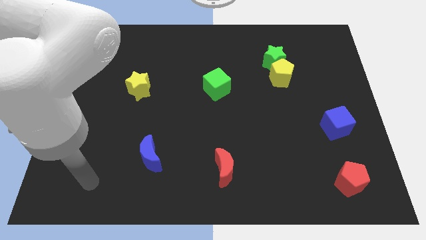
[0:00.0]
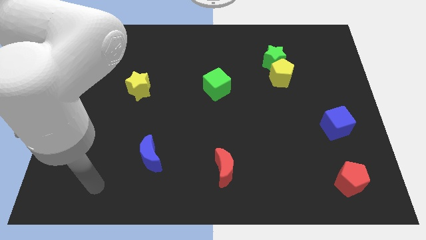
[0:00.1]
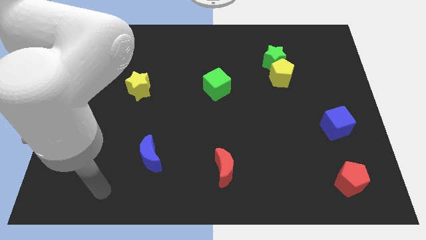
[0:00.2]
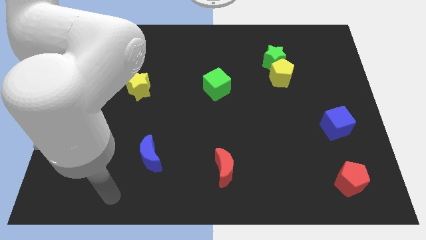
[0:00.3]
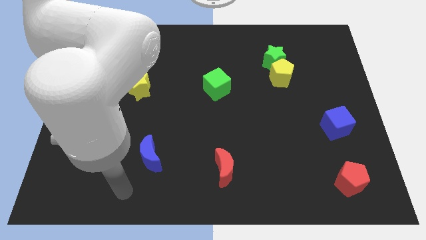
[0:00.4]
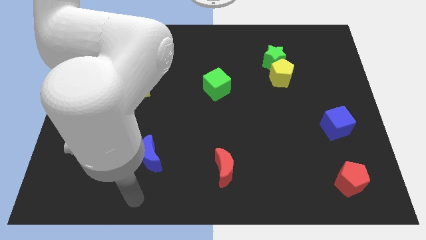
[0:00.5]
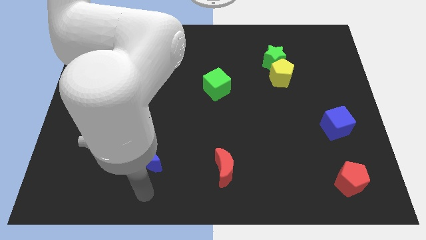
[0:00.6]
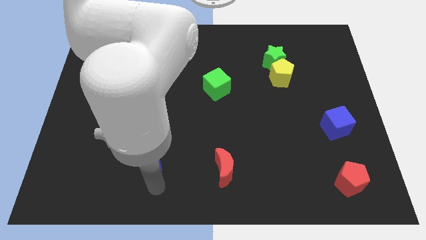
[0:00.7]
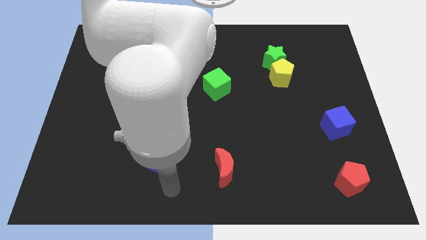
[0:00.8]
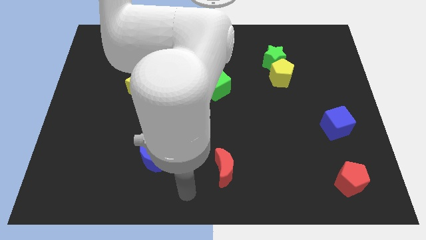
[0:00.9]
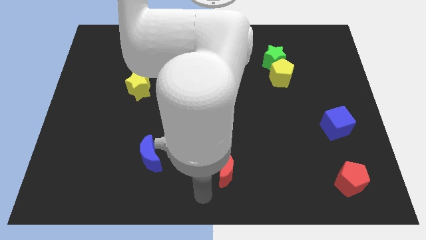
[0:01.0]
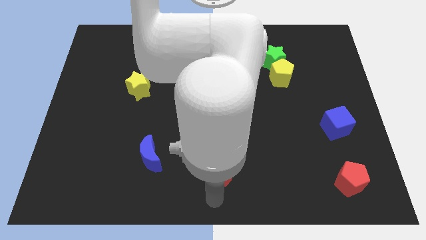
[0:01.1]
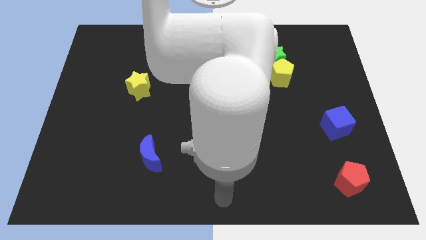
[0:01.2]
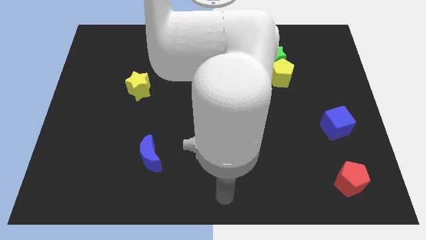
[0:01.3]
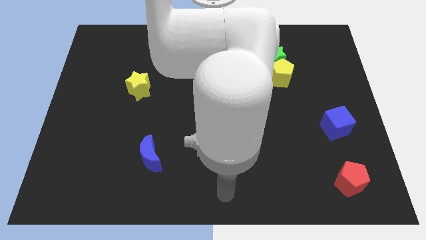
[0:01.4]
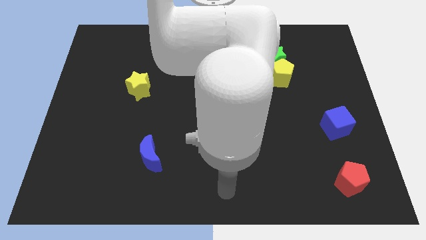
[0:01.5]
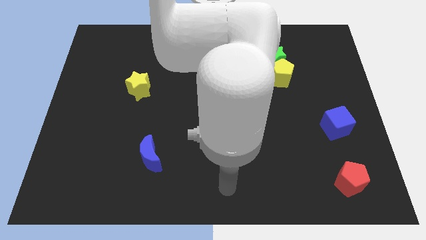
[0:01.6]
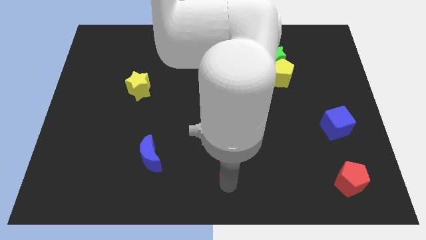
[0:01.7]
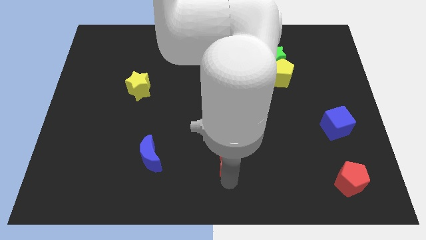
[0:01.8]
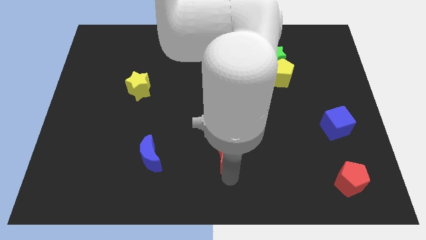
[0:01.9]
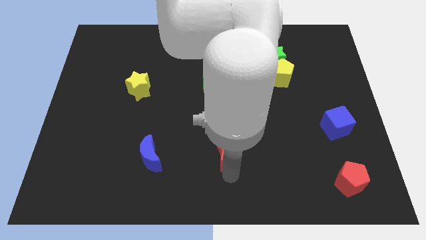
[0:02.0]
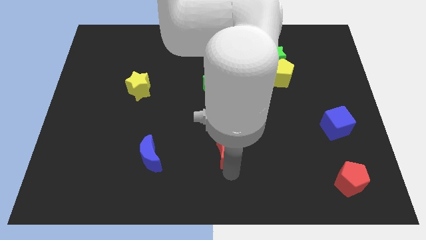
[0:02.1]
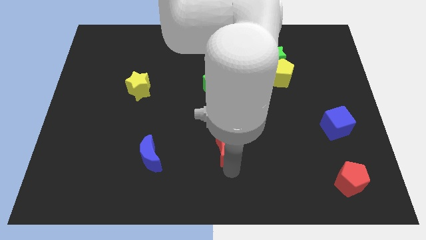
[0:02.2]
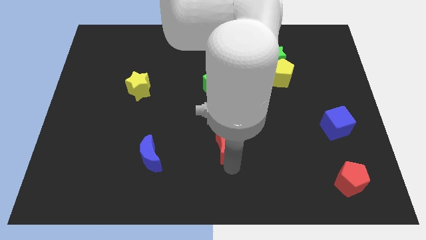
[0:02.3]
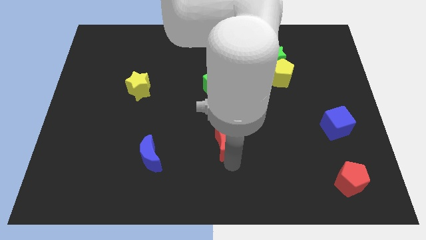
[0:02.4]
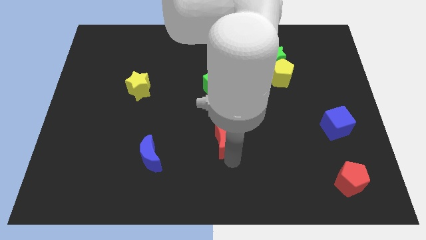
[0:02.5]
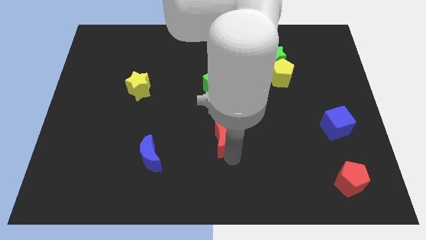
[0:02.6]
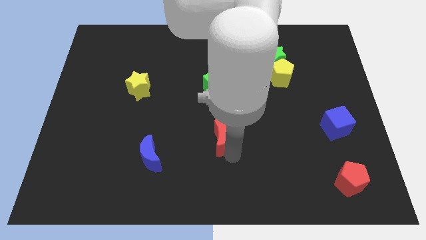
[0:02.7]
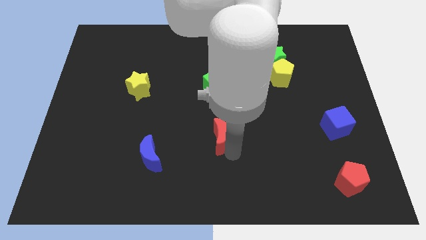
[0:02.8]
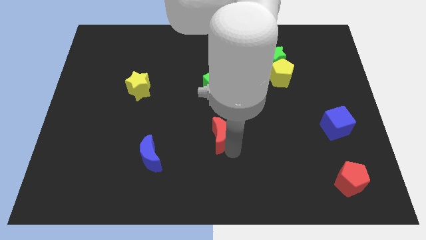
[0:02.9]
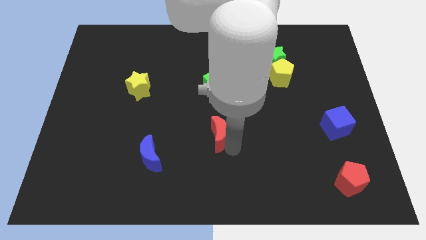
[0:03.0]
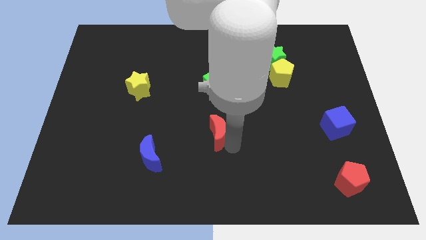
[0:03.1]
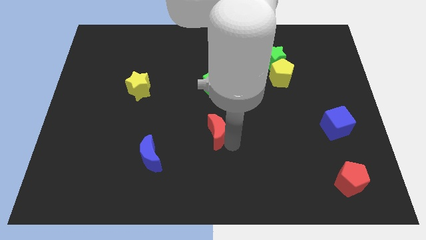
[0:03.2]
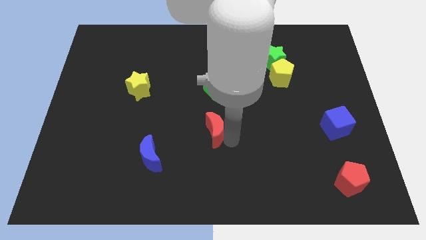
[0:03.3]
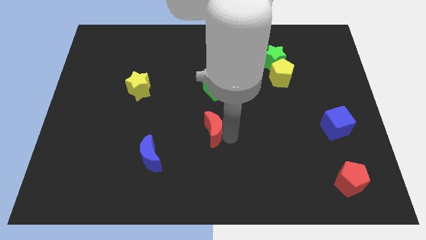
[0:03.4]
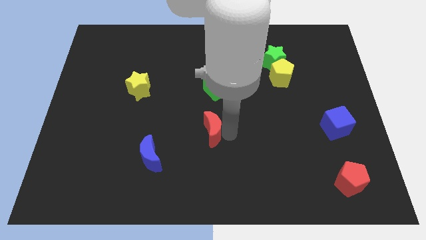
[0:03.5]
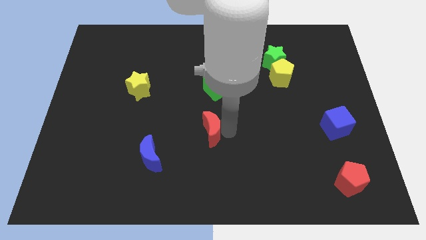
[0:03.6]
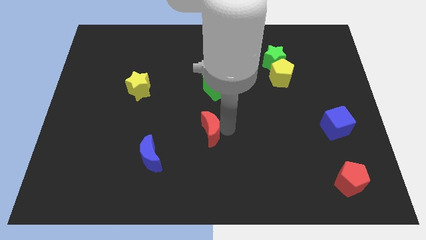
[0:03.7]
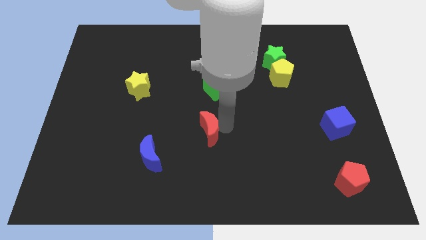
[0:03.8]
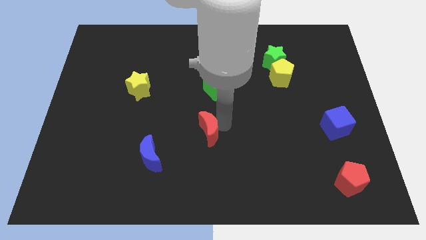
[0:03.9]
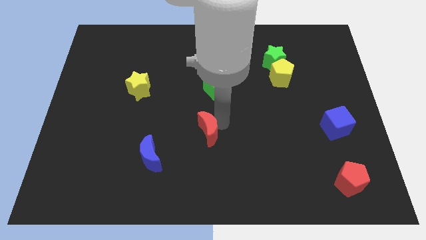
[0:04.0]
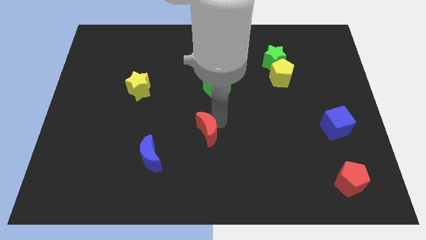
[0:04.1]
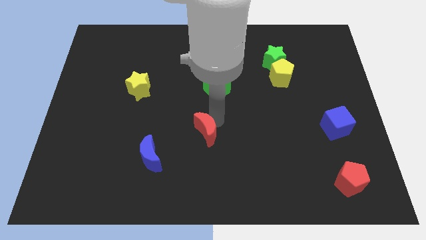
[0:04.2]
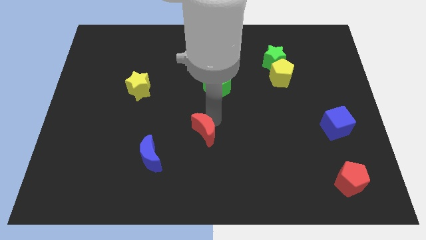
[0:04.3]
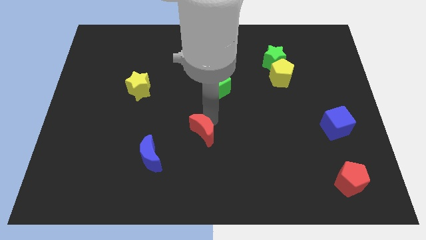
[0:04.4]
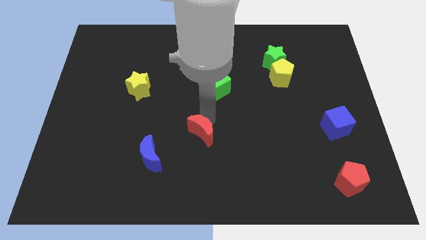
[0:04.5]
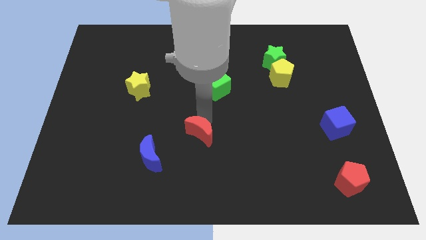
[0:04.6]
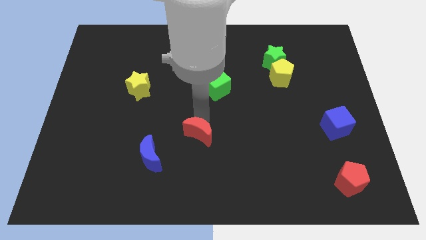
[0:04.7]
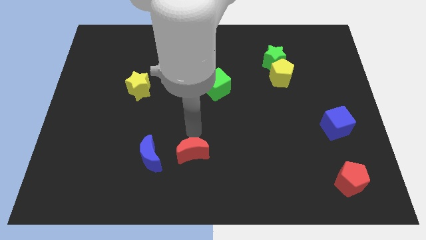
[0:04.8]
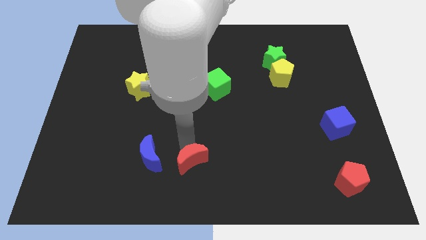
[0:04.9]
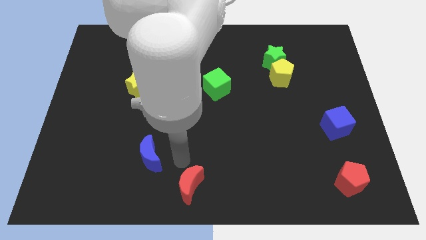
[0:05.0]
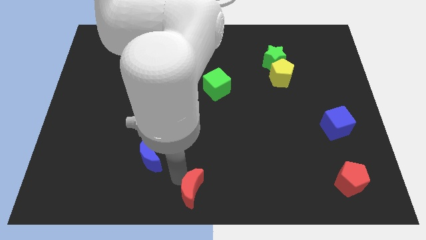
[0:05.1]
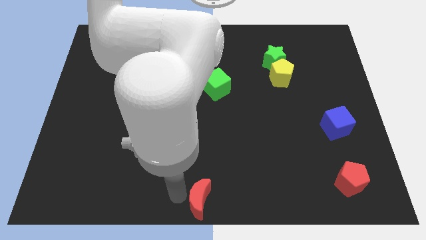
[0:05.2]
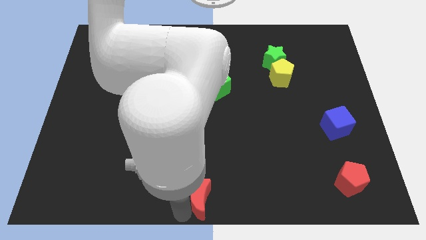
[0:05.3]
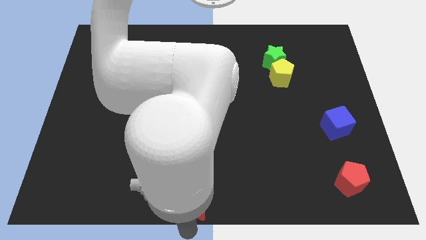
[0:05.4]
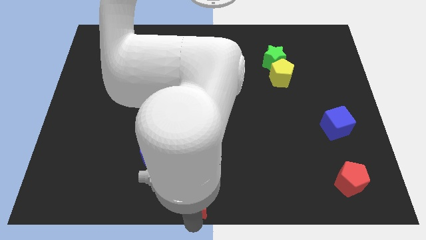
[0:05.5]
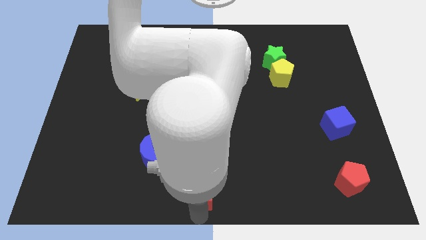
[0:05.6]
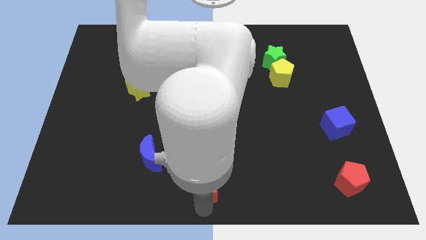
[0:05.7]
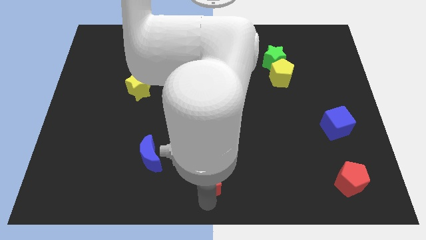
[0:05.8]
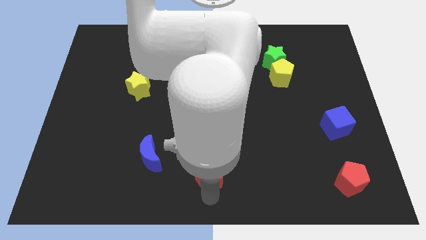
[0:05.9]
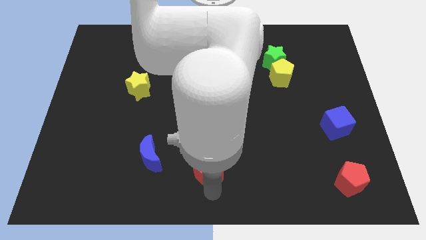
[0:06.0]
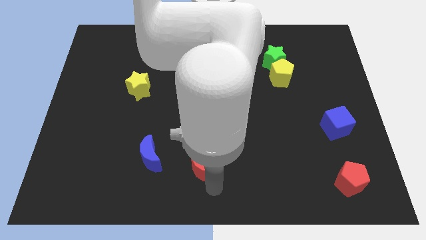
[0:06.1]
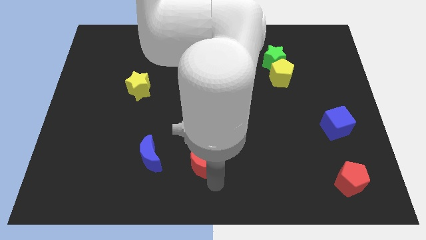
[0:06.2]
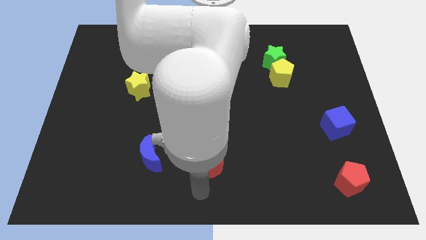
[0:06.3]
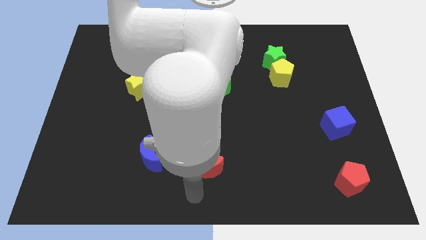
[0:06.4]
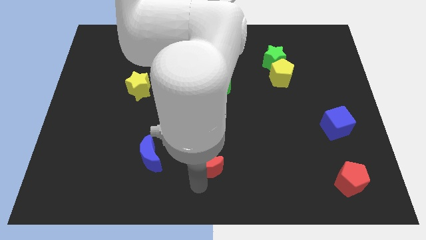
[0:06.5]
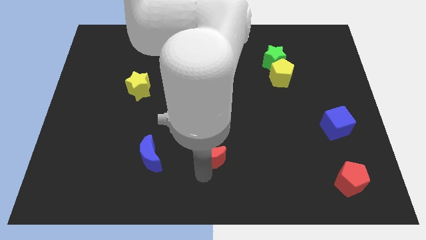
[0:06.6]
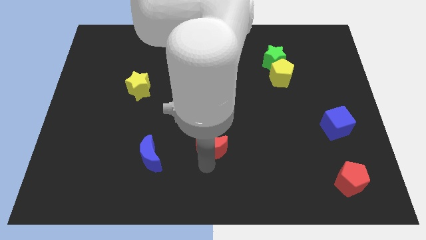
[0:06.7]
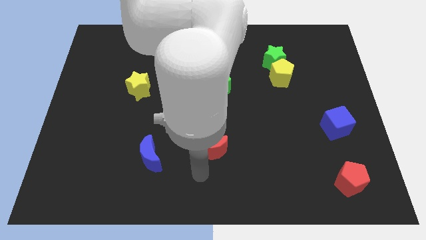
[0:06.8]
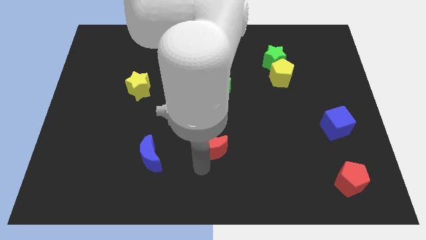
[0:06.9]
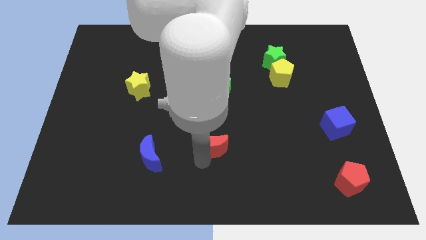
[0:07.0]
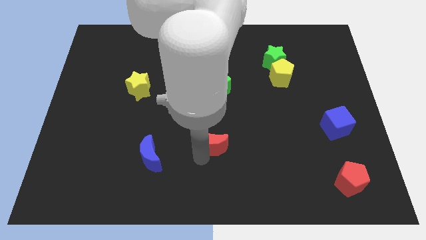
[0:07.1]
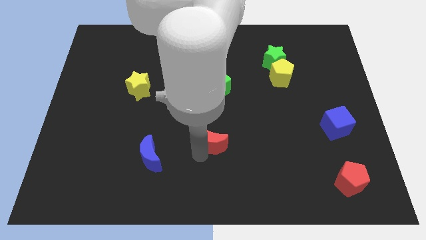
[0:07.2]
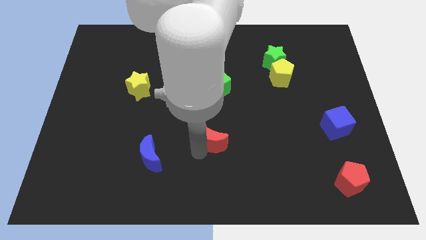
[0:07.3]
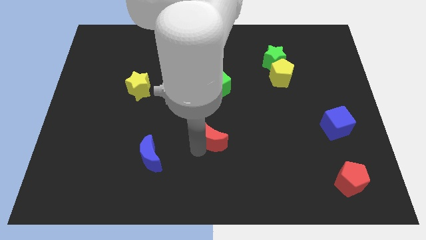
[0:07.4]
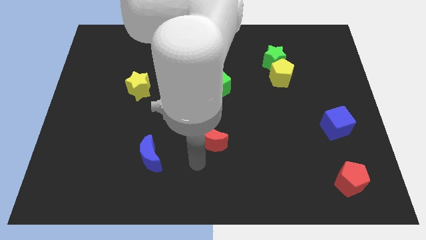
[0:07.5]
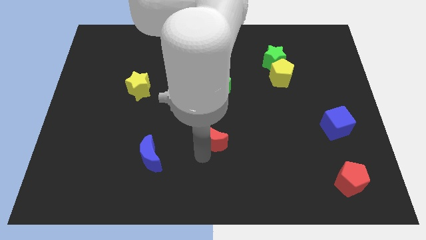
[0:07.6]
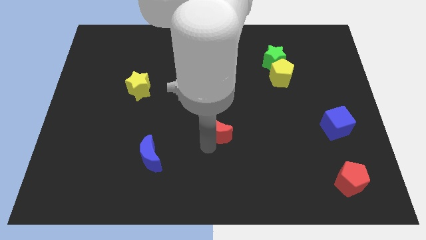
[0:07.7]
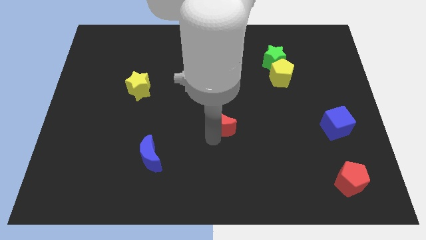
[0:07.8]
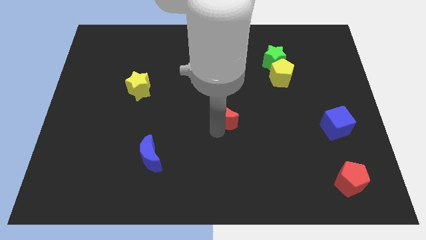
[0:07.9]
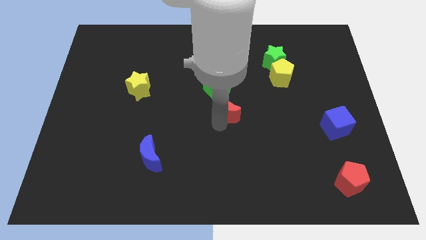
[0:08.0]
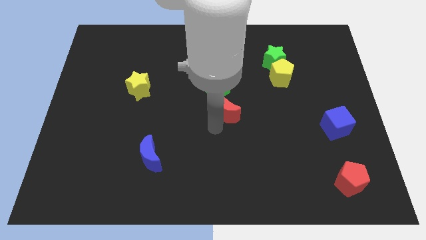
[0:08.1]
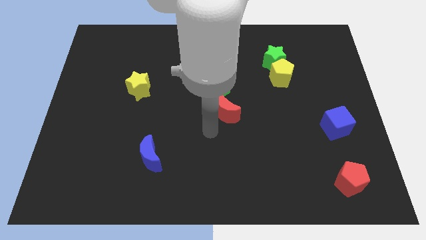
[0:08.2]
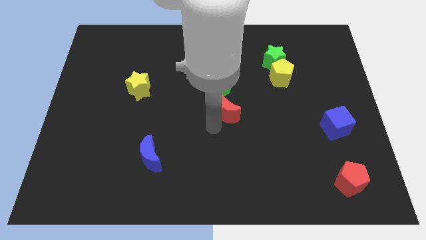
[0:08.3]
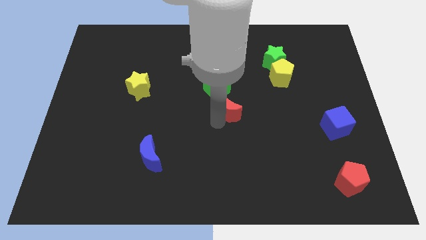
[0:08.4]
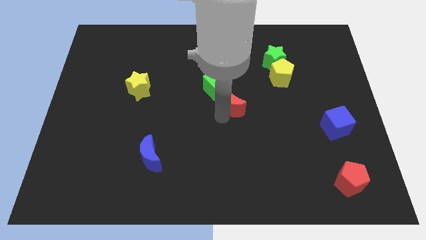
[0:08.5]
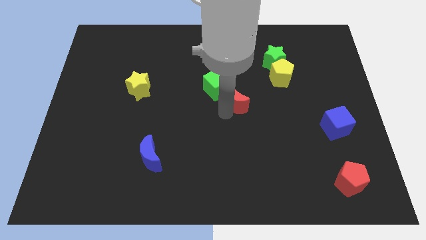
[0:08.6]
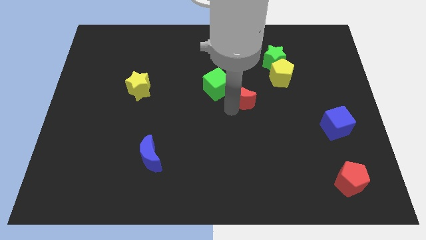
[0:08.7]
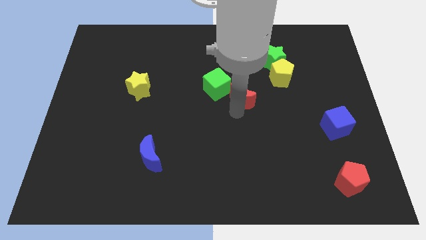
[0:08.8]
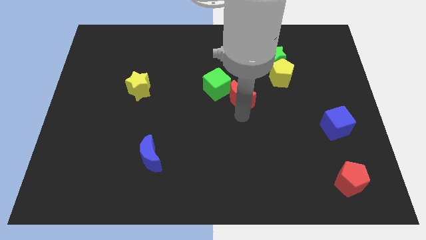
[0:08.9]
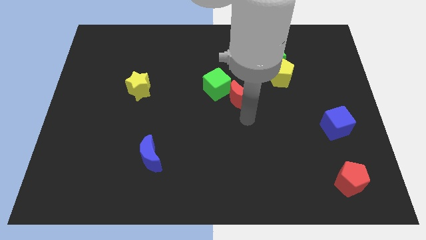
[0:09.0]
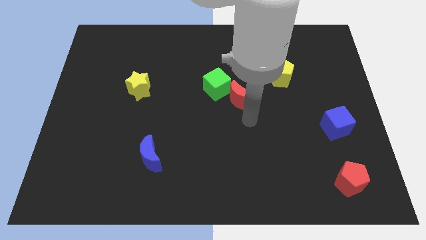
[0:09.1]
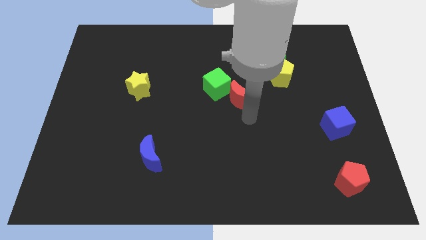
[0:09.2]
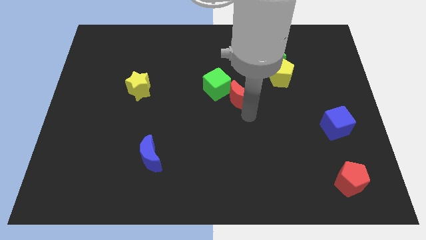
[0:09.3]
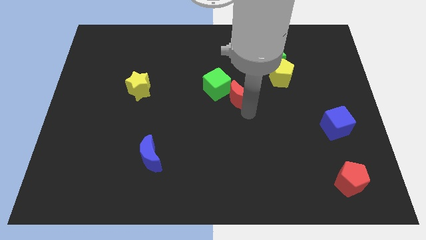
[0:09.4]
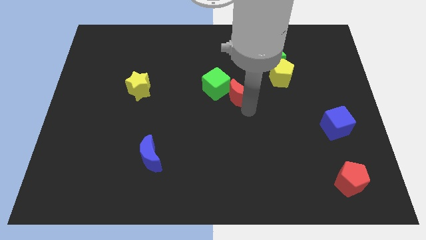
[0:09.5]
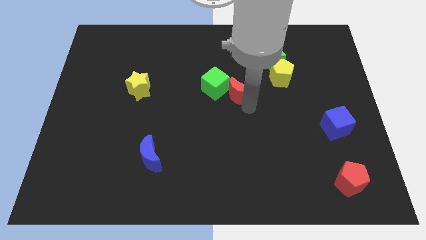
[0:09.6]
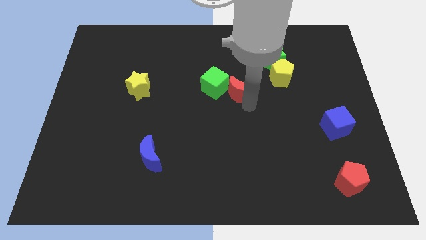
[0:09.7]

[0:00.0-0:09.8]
push the red moon up
